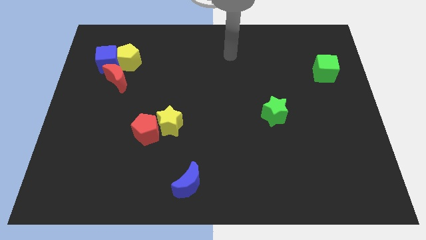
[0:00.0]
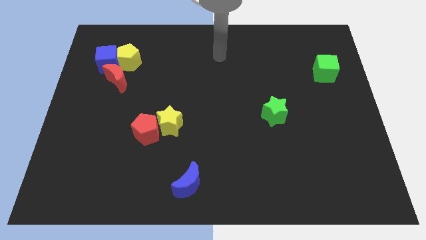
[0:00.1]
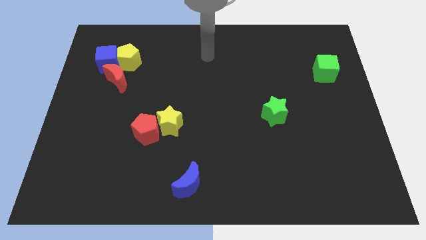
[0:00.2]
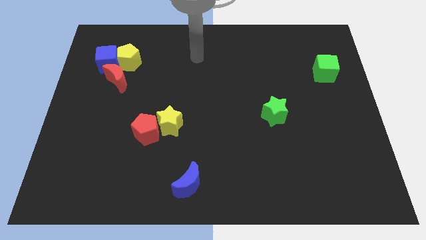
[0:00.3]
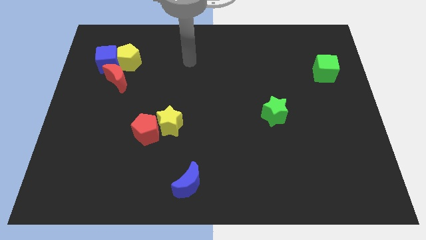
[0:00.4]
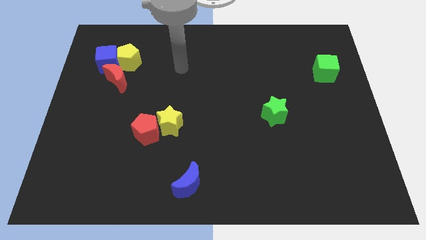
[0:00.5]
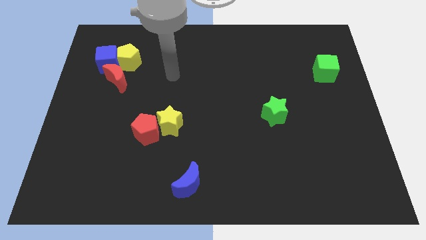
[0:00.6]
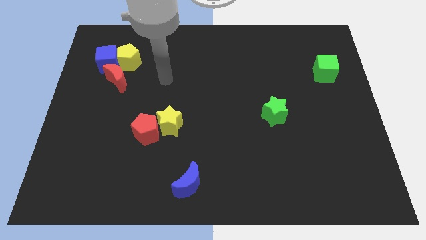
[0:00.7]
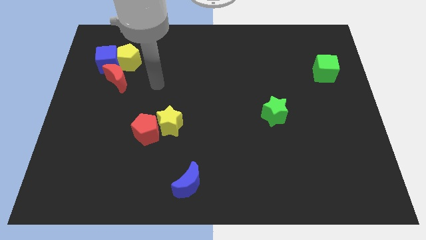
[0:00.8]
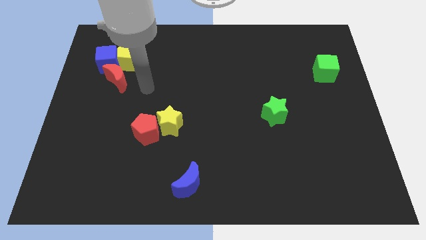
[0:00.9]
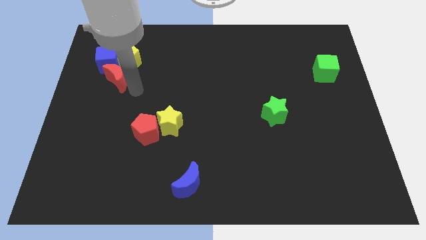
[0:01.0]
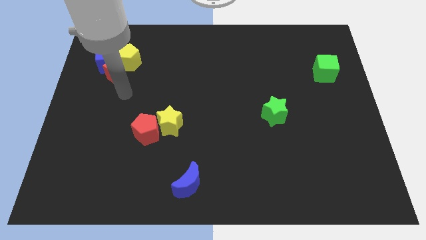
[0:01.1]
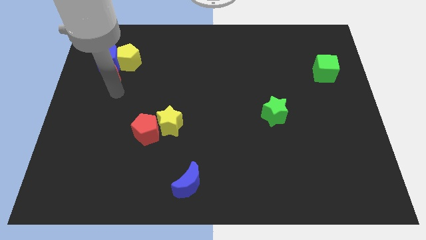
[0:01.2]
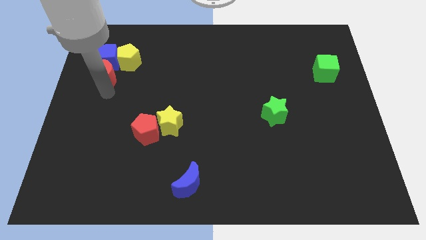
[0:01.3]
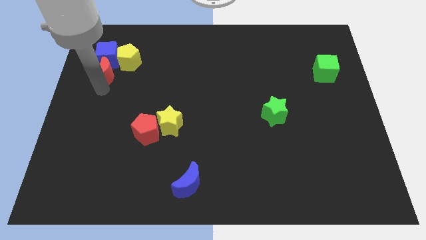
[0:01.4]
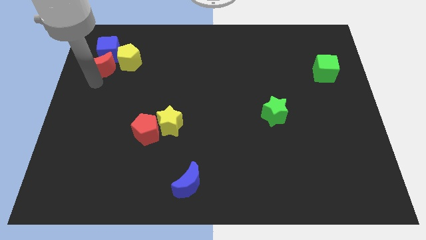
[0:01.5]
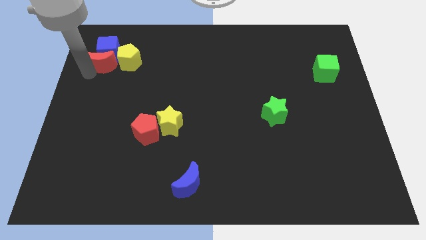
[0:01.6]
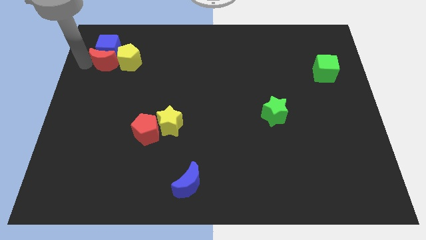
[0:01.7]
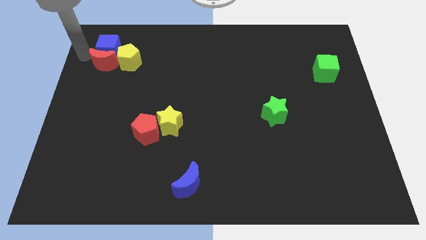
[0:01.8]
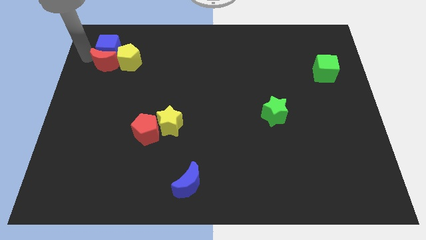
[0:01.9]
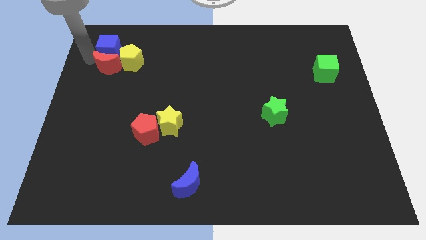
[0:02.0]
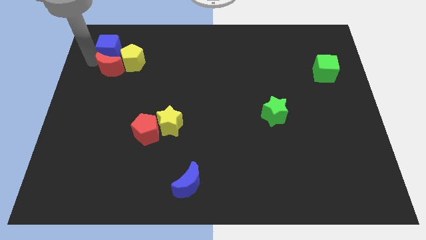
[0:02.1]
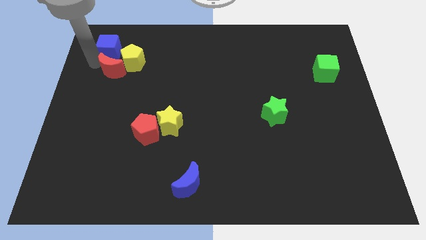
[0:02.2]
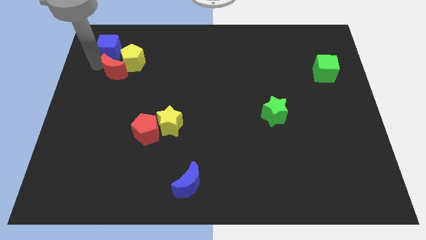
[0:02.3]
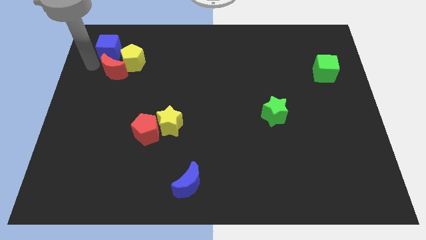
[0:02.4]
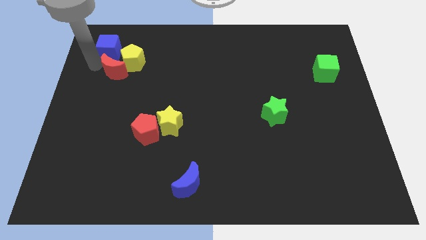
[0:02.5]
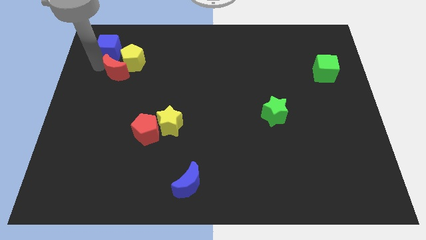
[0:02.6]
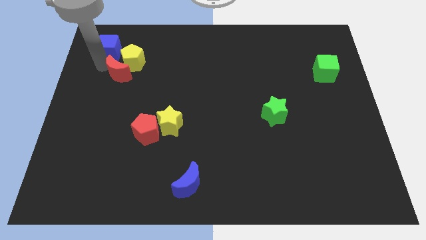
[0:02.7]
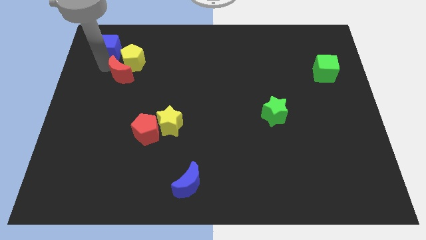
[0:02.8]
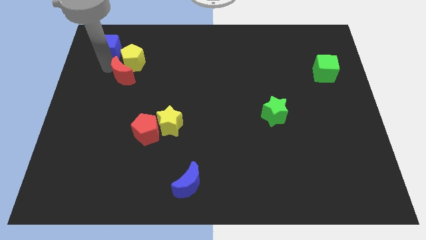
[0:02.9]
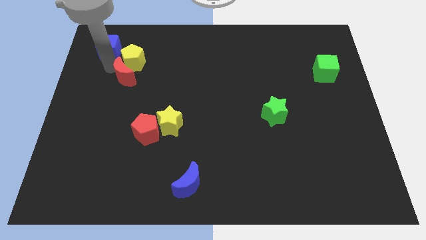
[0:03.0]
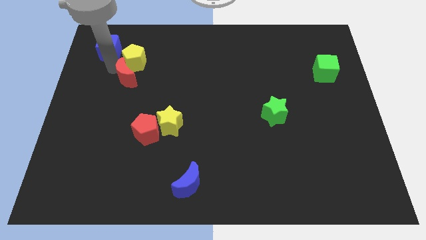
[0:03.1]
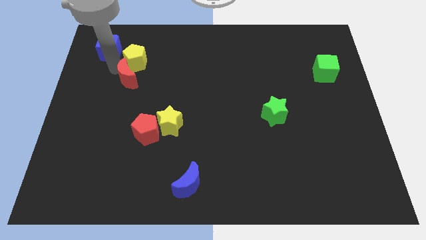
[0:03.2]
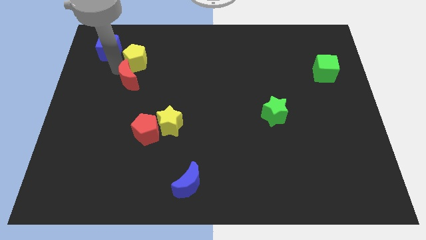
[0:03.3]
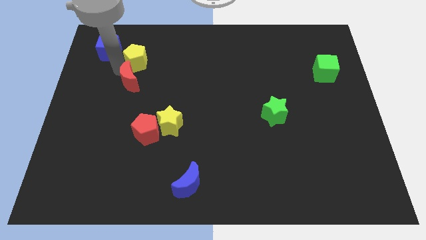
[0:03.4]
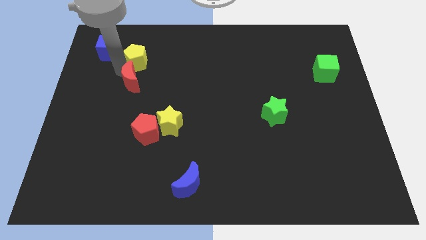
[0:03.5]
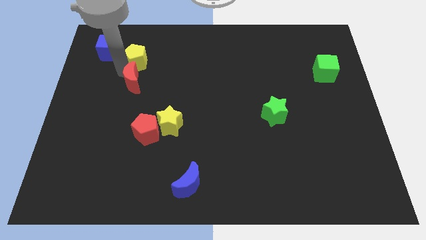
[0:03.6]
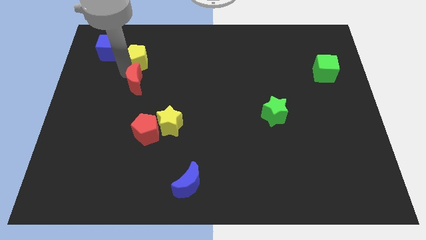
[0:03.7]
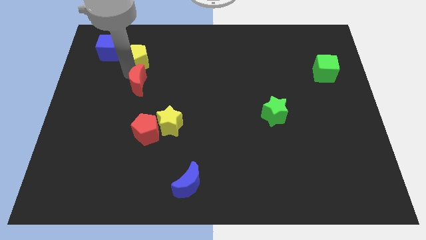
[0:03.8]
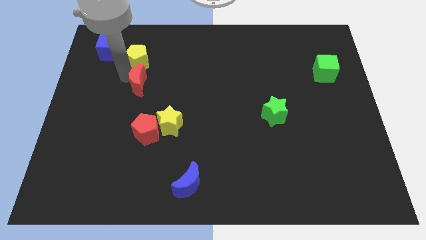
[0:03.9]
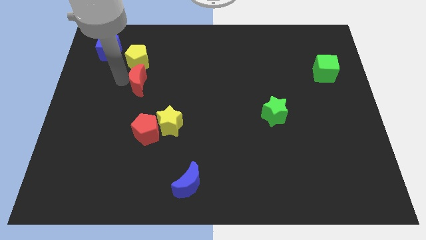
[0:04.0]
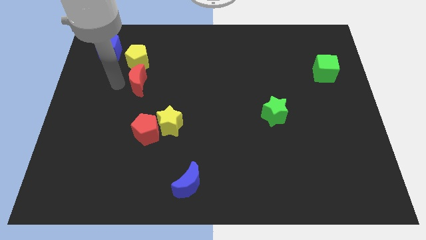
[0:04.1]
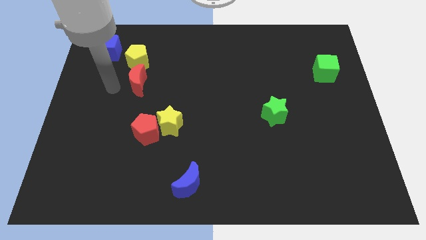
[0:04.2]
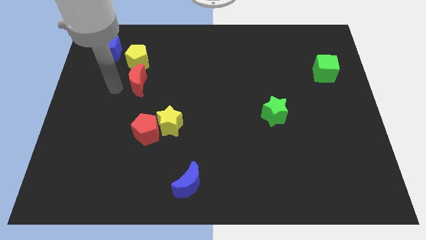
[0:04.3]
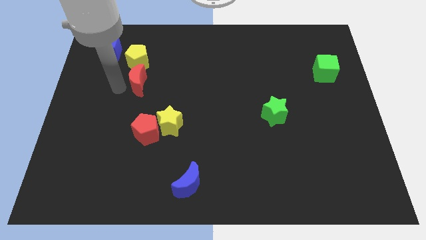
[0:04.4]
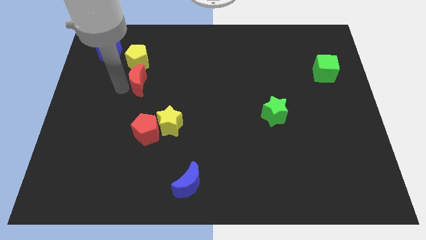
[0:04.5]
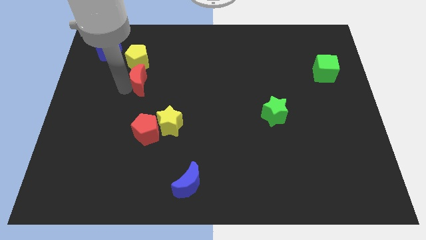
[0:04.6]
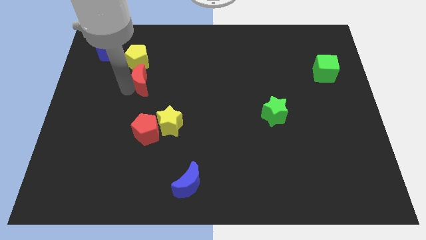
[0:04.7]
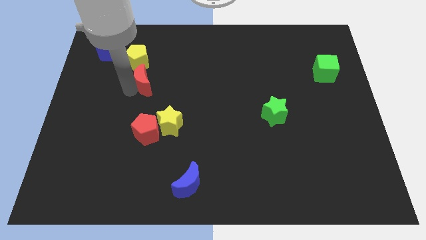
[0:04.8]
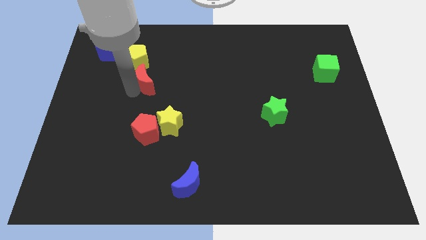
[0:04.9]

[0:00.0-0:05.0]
slide the red moon right a little

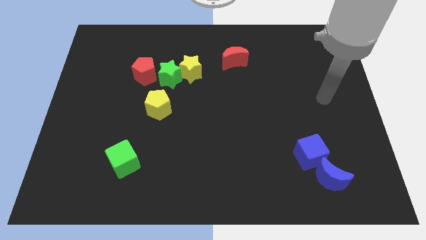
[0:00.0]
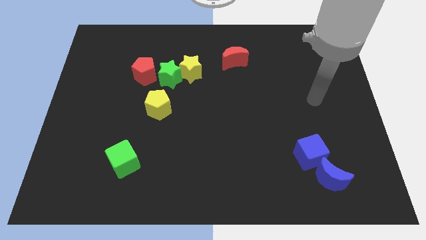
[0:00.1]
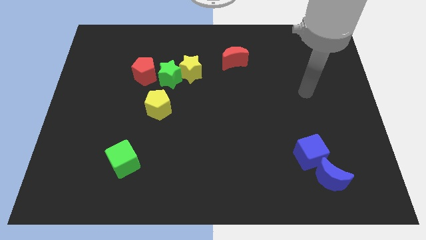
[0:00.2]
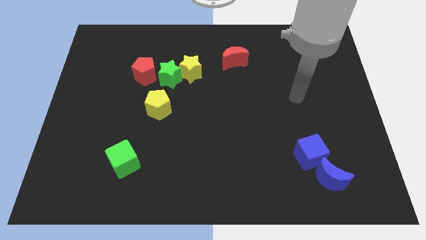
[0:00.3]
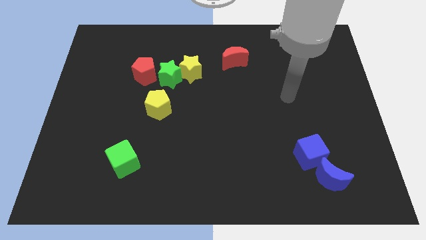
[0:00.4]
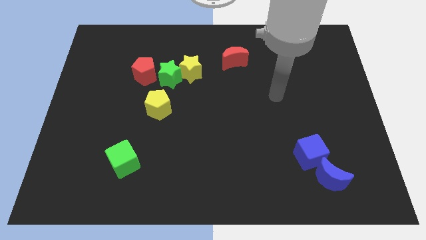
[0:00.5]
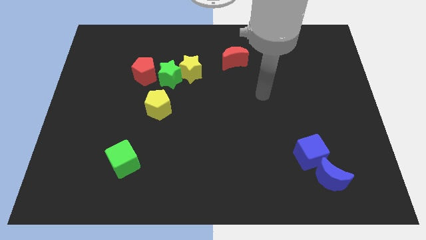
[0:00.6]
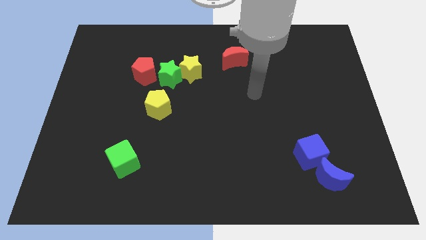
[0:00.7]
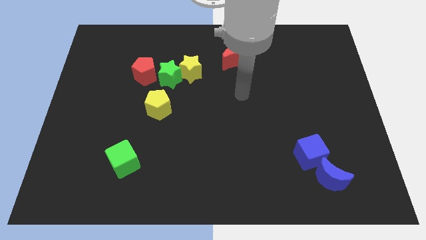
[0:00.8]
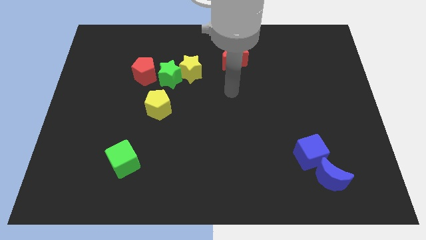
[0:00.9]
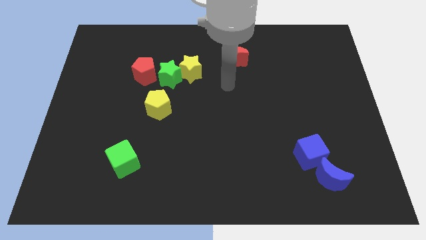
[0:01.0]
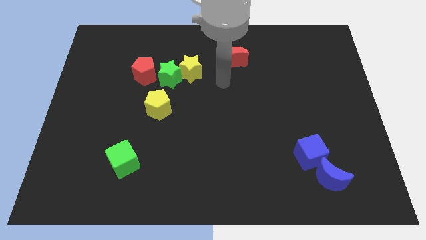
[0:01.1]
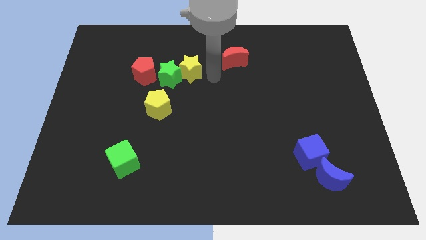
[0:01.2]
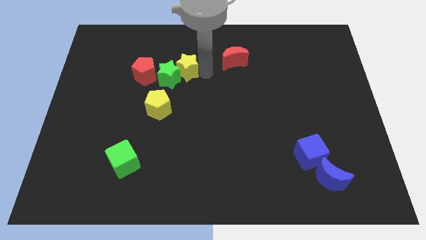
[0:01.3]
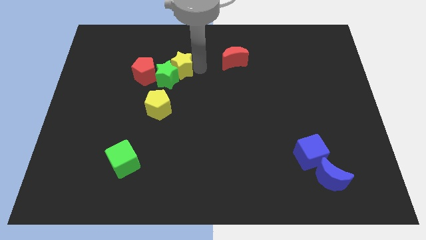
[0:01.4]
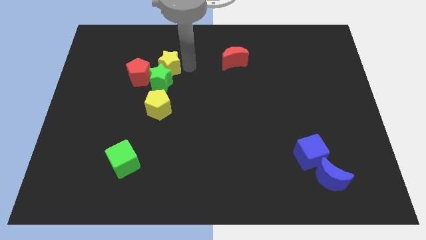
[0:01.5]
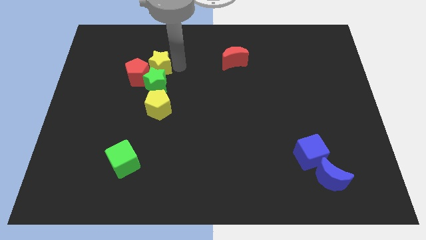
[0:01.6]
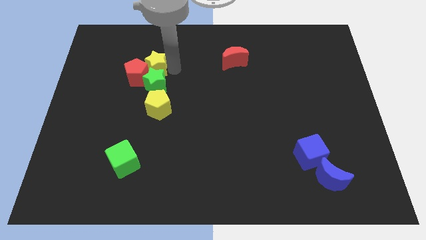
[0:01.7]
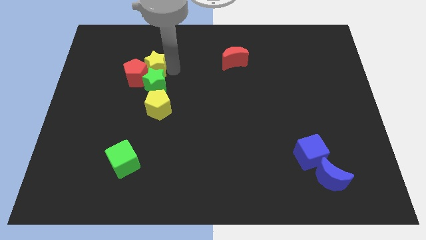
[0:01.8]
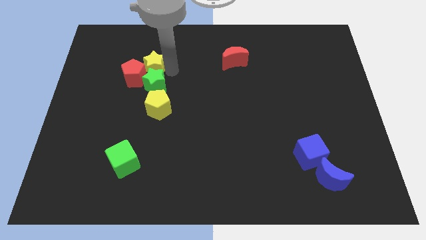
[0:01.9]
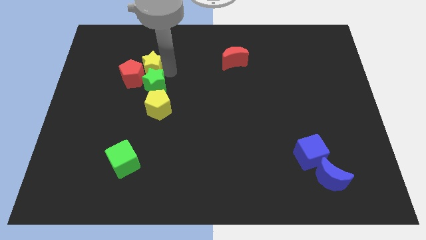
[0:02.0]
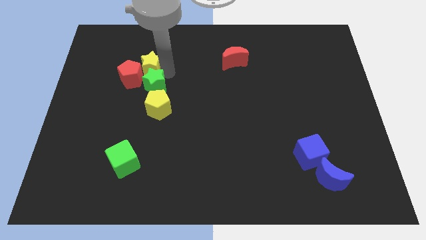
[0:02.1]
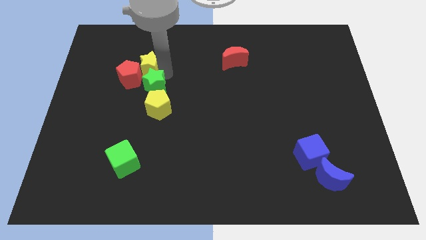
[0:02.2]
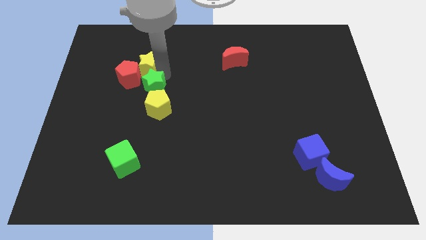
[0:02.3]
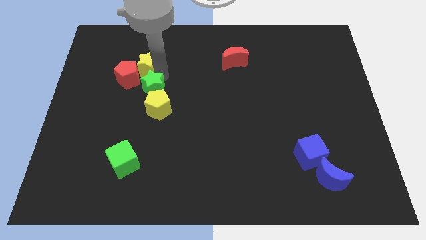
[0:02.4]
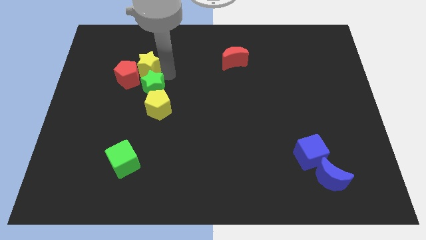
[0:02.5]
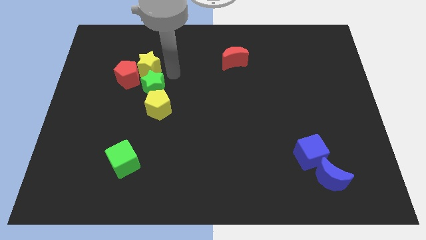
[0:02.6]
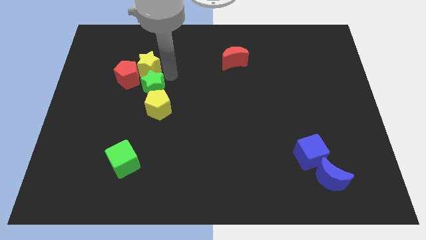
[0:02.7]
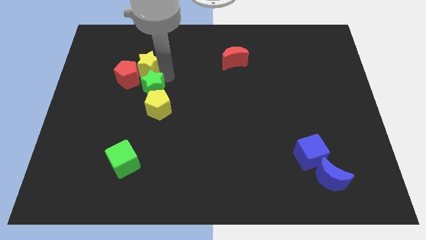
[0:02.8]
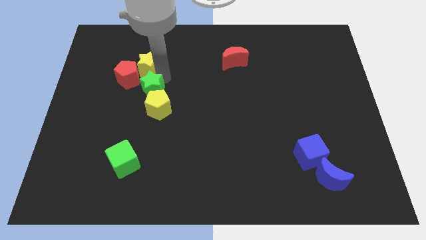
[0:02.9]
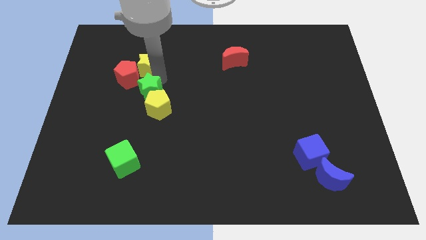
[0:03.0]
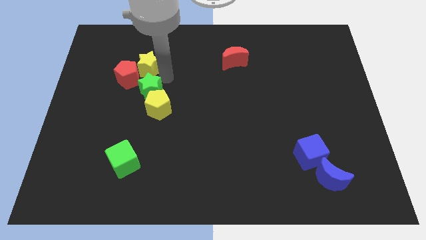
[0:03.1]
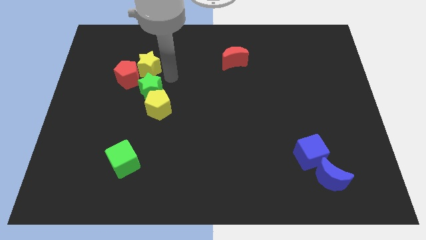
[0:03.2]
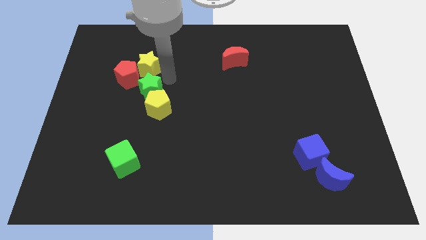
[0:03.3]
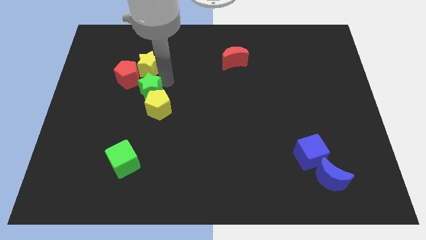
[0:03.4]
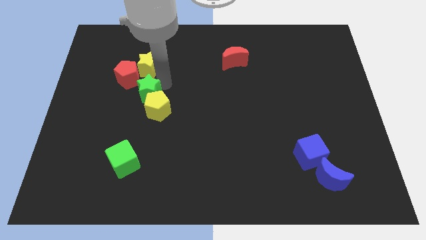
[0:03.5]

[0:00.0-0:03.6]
push the green star a little downwards and left diagonally
